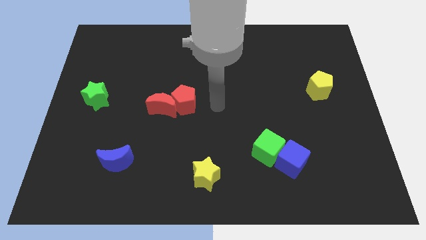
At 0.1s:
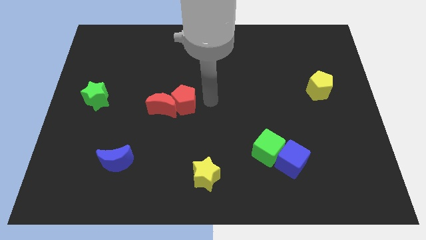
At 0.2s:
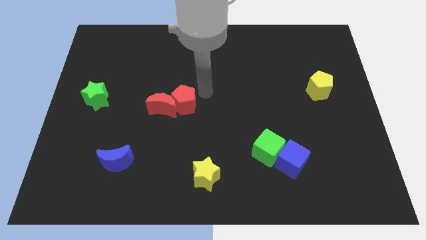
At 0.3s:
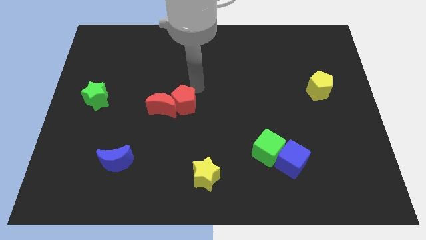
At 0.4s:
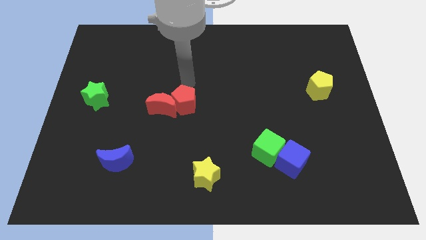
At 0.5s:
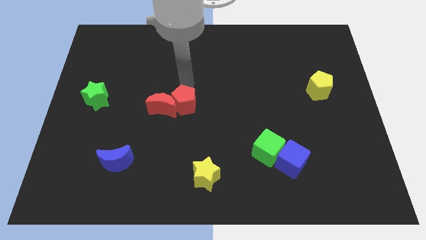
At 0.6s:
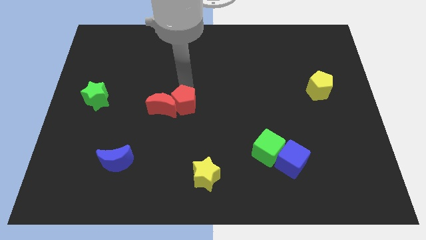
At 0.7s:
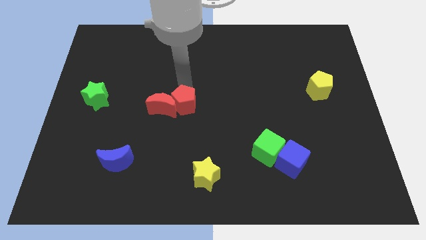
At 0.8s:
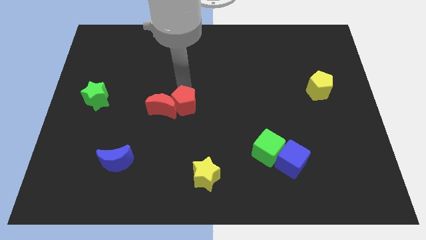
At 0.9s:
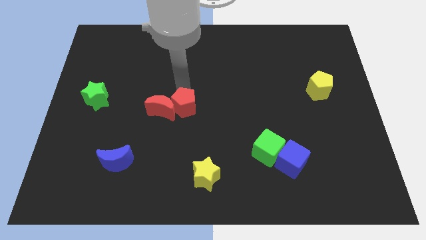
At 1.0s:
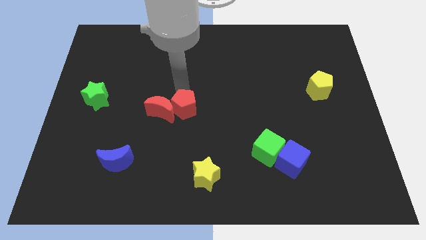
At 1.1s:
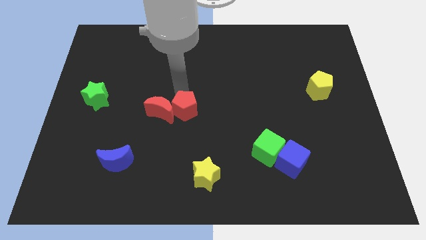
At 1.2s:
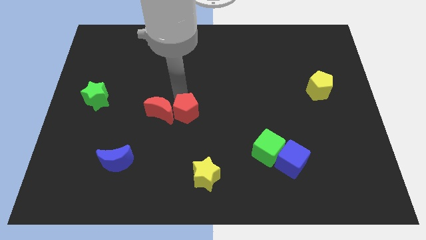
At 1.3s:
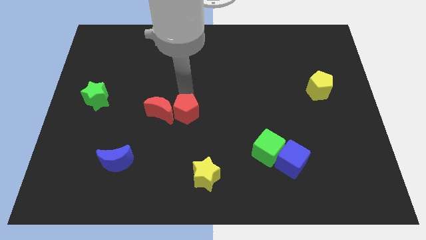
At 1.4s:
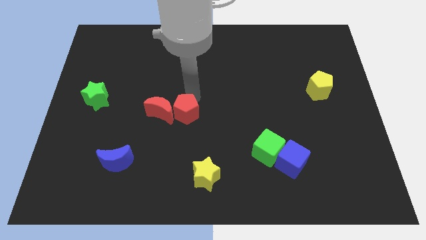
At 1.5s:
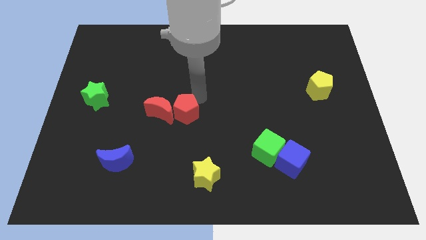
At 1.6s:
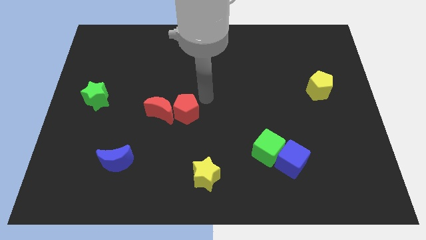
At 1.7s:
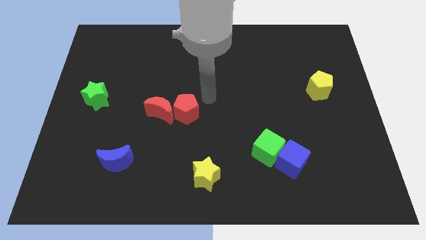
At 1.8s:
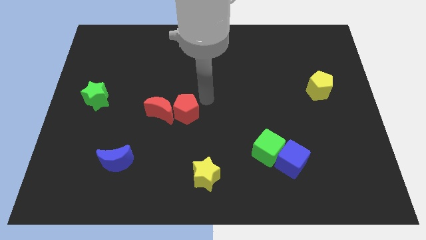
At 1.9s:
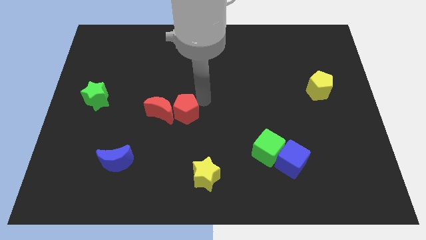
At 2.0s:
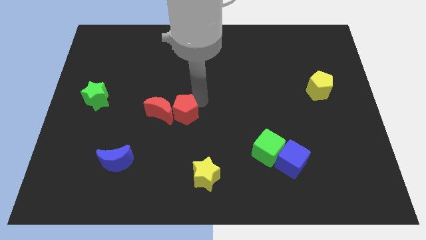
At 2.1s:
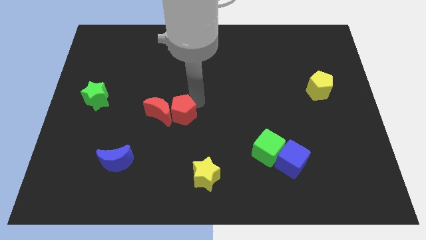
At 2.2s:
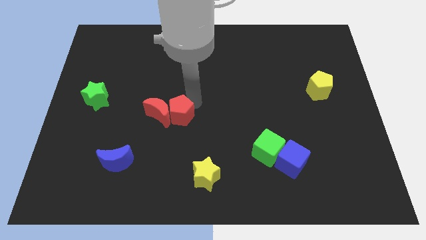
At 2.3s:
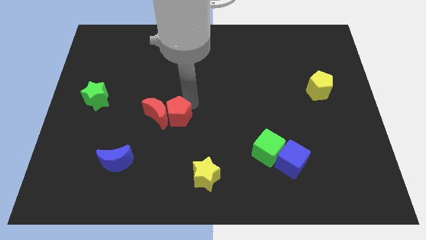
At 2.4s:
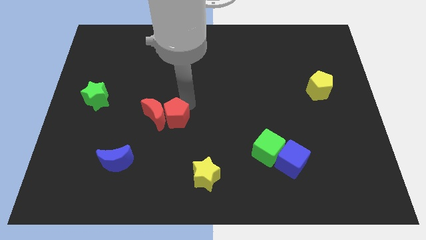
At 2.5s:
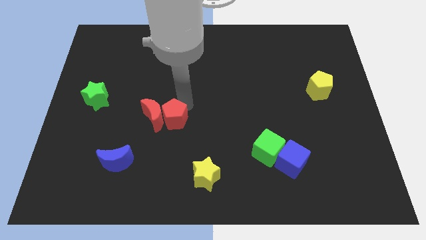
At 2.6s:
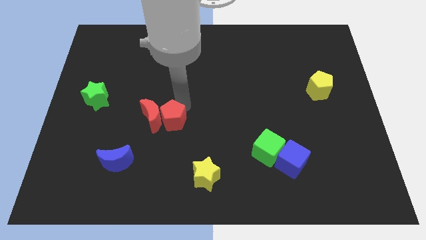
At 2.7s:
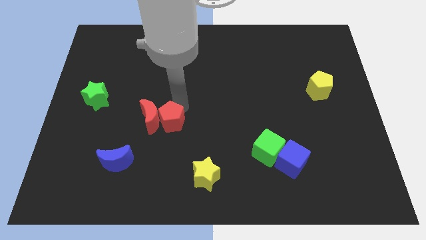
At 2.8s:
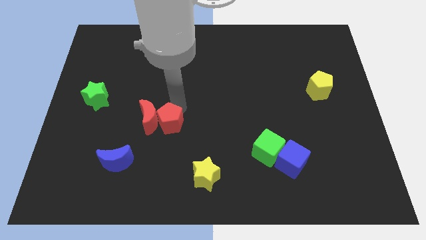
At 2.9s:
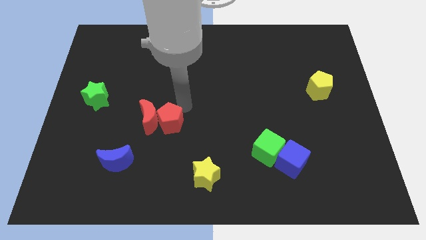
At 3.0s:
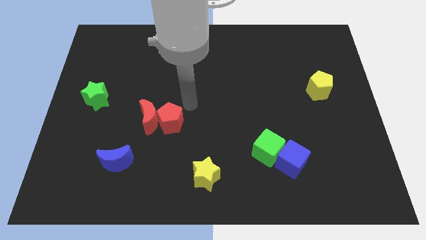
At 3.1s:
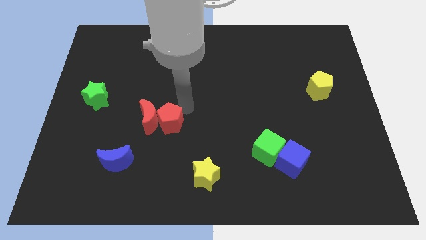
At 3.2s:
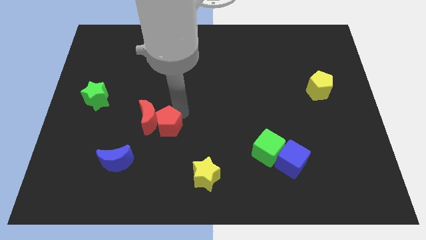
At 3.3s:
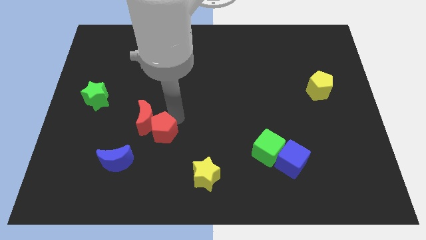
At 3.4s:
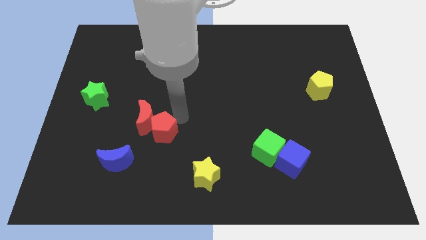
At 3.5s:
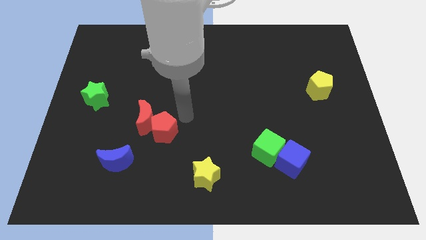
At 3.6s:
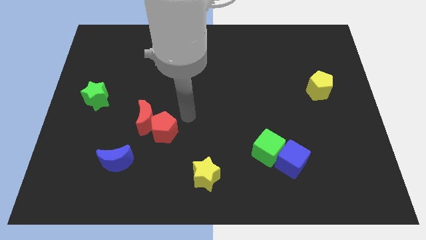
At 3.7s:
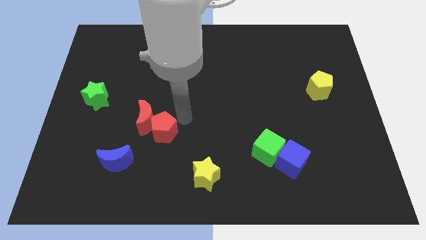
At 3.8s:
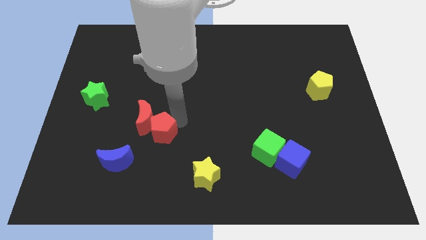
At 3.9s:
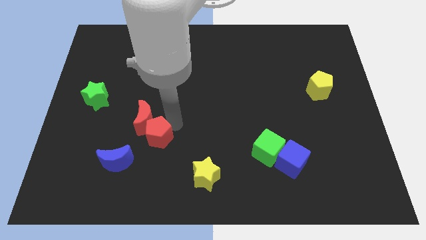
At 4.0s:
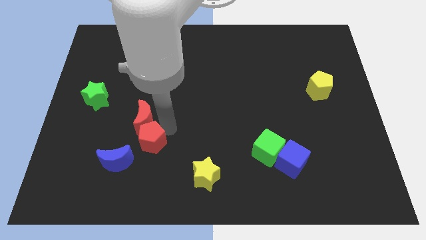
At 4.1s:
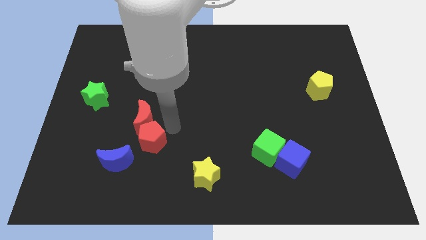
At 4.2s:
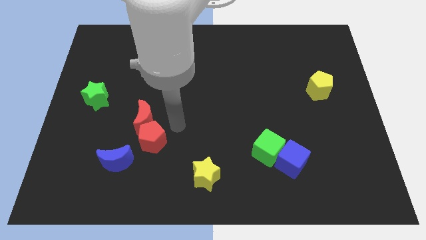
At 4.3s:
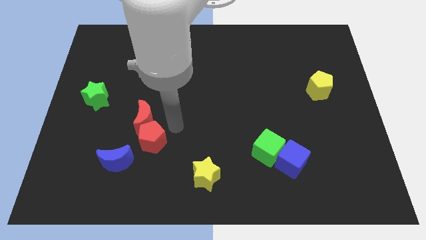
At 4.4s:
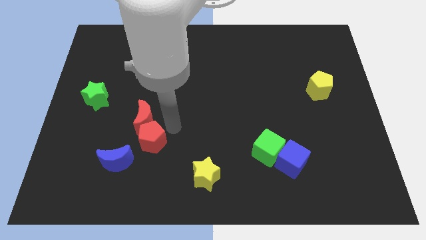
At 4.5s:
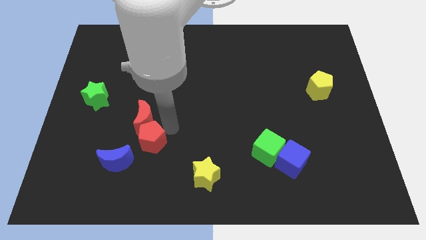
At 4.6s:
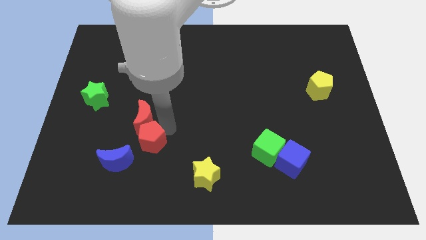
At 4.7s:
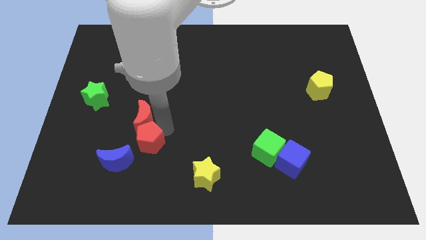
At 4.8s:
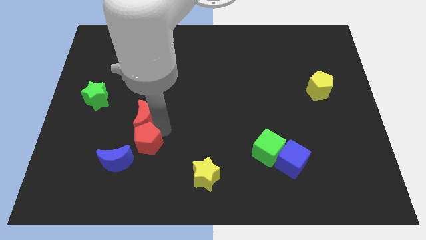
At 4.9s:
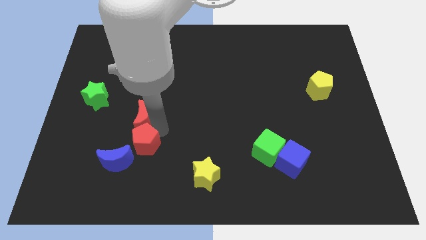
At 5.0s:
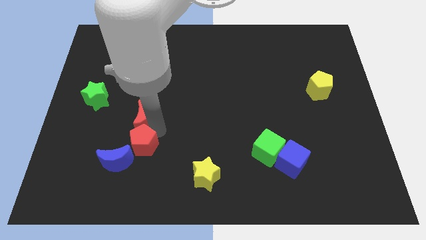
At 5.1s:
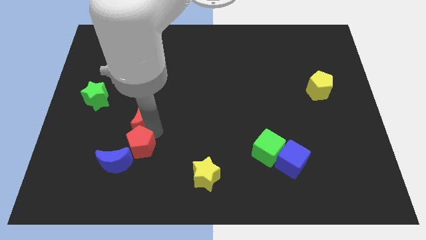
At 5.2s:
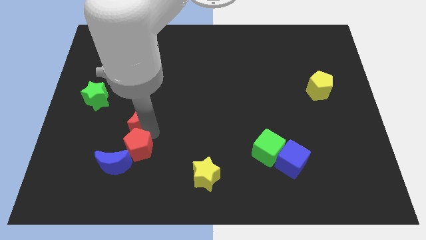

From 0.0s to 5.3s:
put the red pentagon towards the blue moon

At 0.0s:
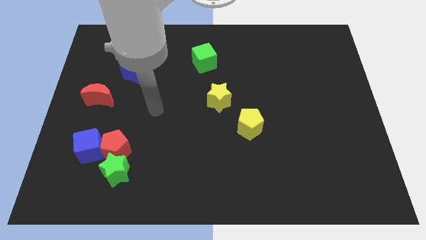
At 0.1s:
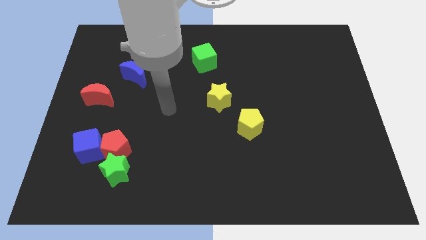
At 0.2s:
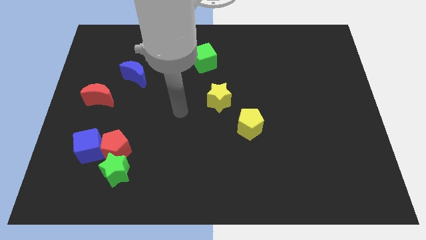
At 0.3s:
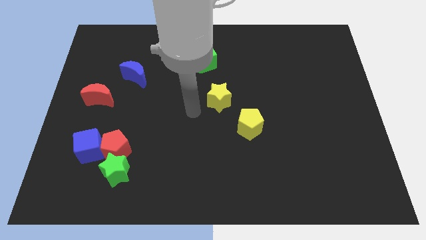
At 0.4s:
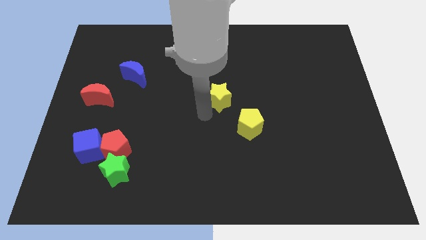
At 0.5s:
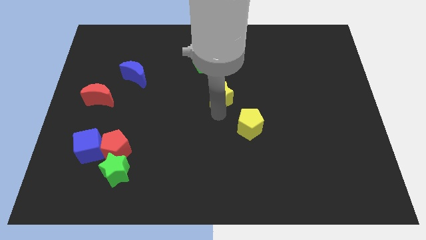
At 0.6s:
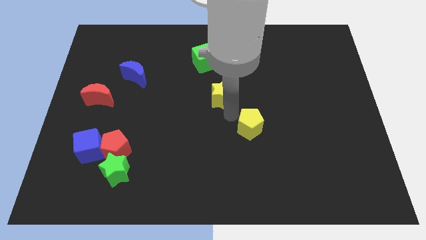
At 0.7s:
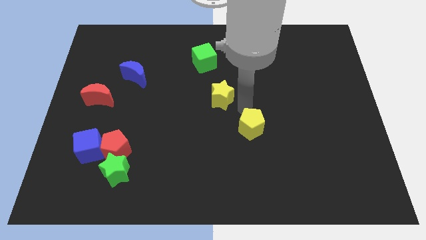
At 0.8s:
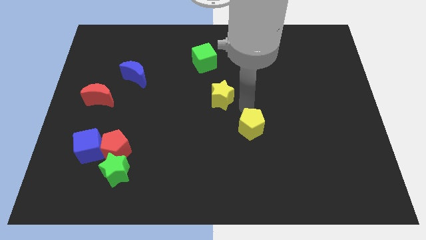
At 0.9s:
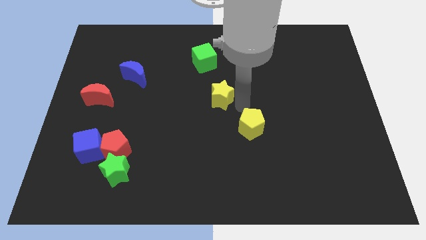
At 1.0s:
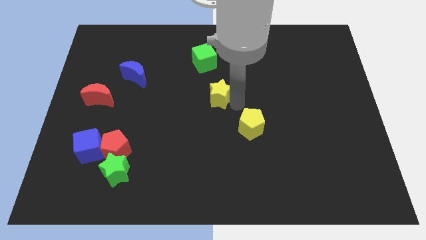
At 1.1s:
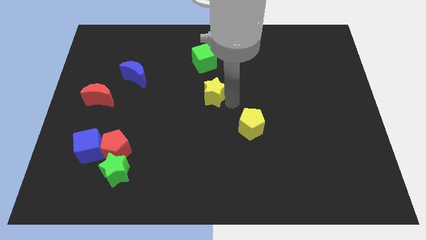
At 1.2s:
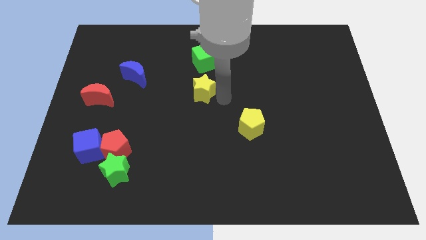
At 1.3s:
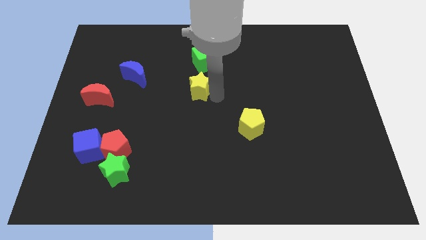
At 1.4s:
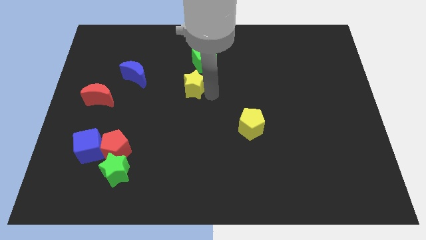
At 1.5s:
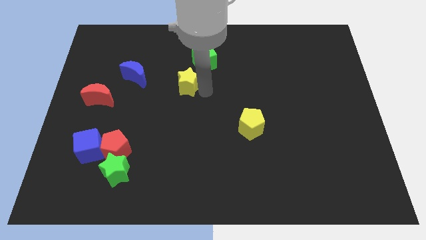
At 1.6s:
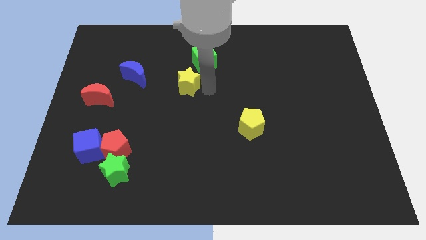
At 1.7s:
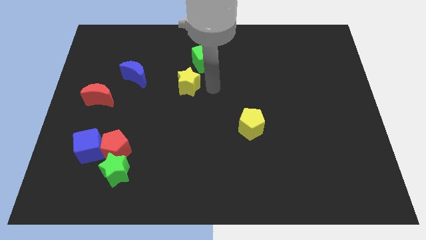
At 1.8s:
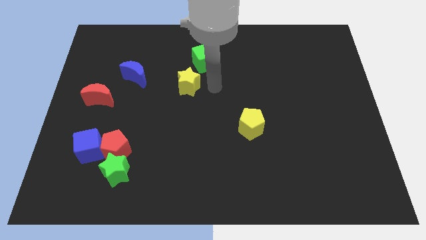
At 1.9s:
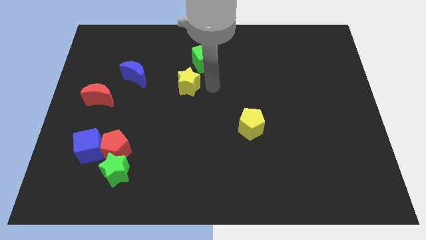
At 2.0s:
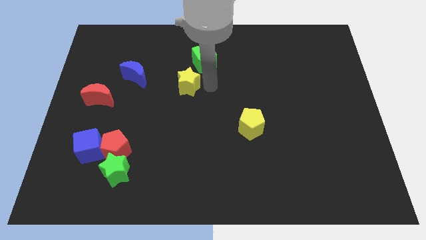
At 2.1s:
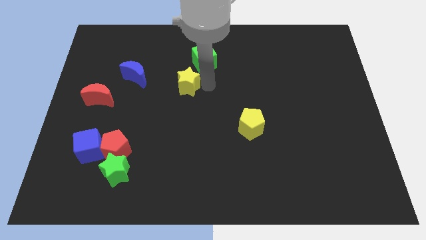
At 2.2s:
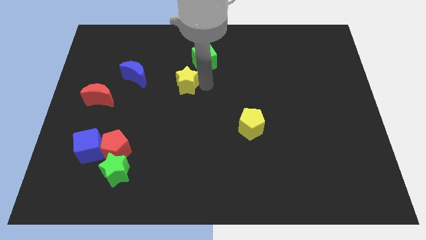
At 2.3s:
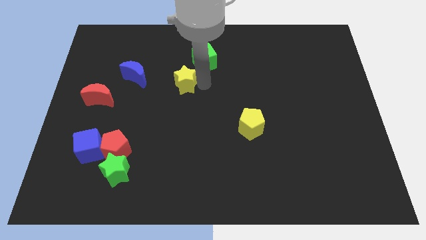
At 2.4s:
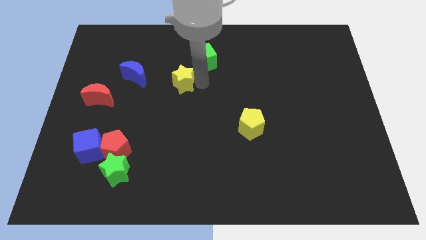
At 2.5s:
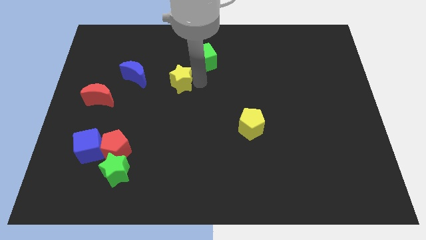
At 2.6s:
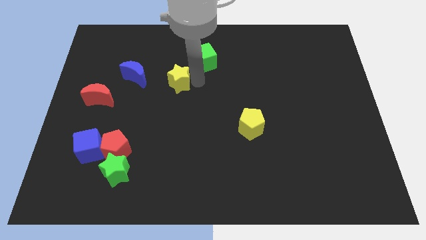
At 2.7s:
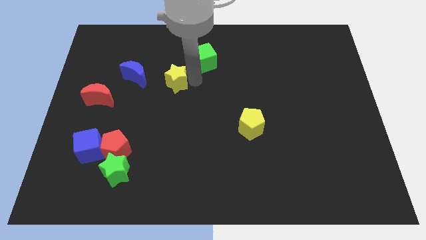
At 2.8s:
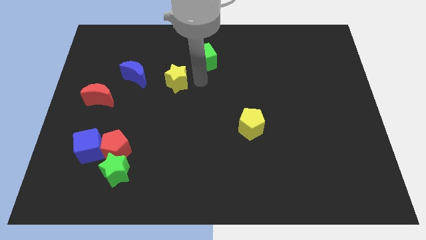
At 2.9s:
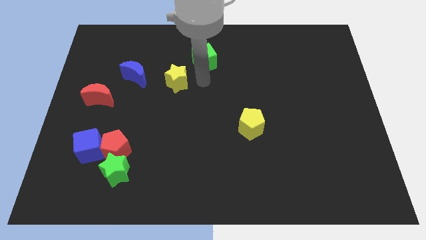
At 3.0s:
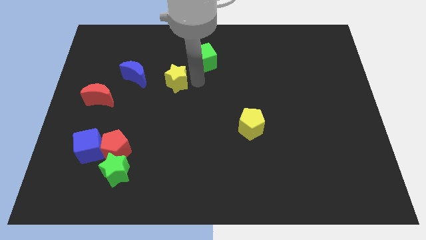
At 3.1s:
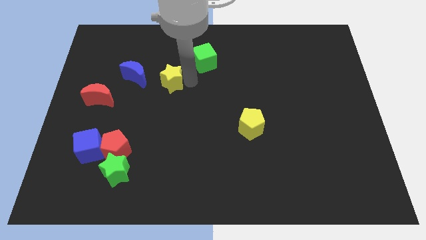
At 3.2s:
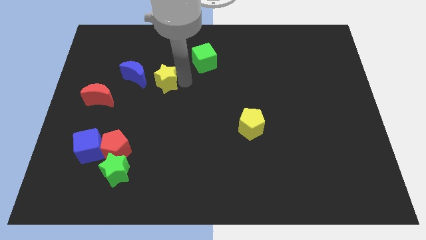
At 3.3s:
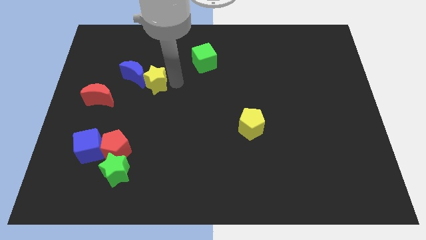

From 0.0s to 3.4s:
move the yellow star next to the blue moon
